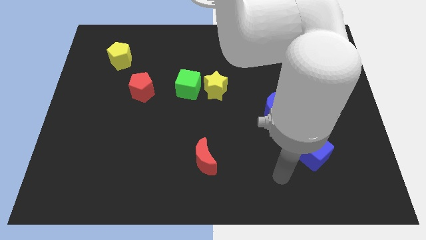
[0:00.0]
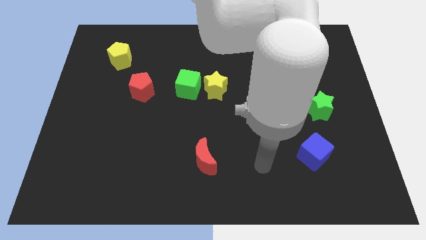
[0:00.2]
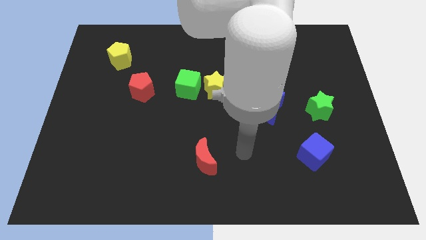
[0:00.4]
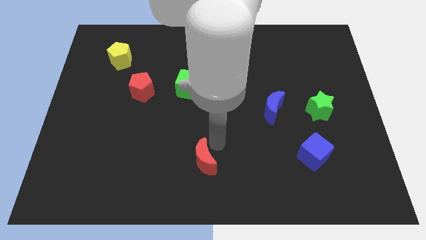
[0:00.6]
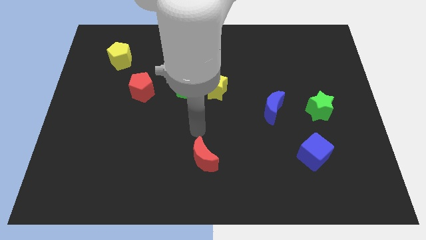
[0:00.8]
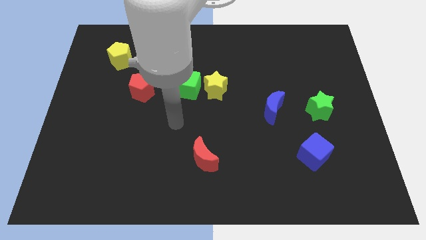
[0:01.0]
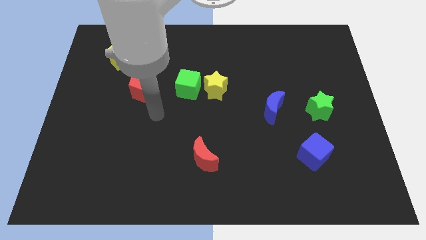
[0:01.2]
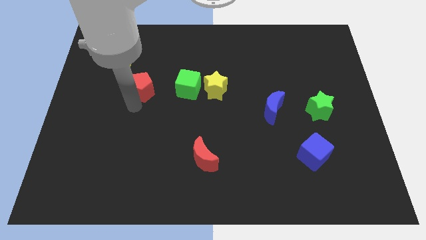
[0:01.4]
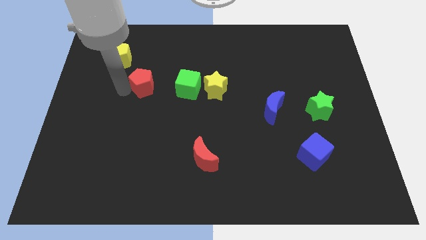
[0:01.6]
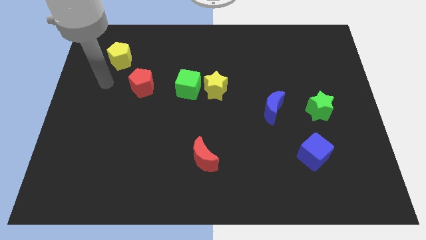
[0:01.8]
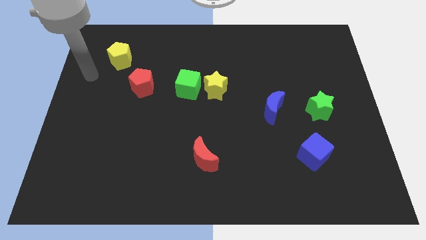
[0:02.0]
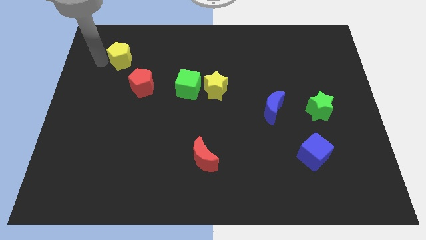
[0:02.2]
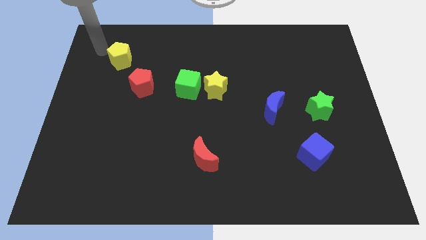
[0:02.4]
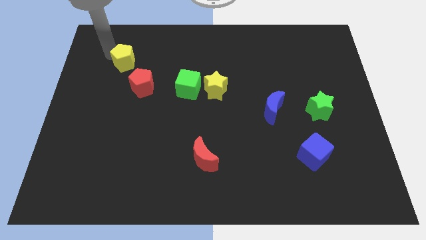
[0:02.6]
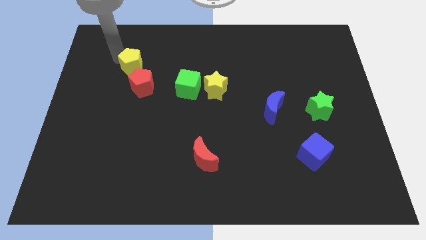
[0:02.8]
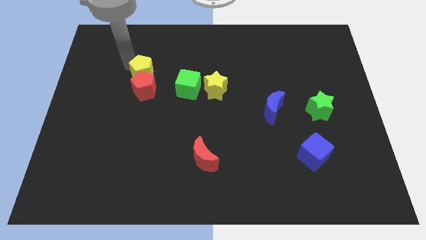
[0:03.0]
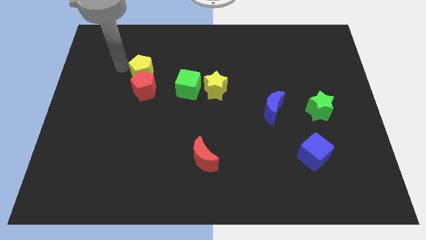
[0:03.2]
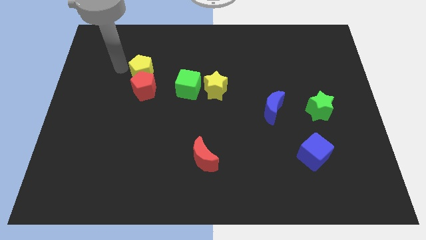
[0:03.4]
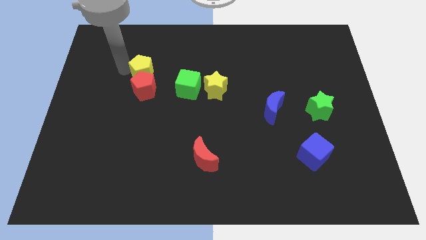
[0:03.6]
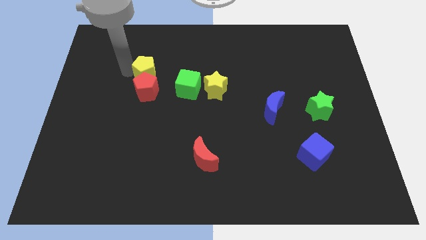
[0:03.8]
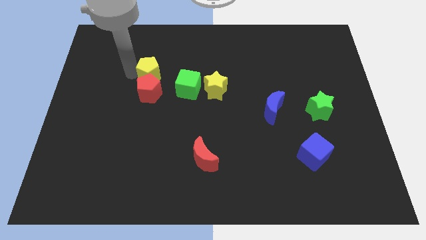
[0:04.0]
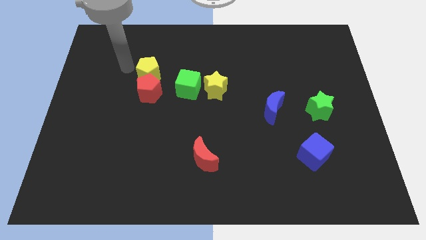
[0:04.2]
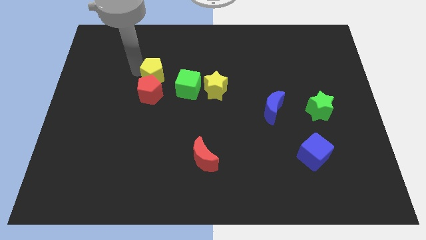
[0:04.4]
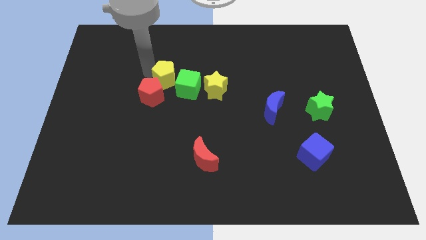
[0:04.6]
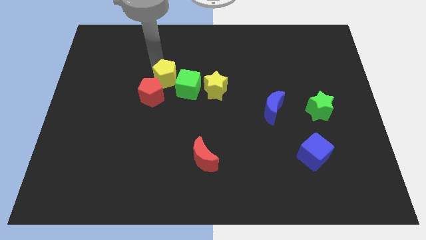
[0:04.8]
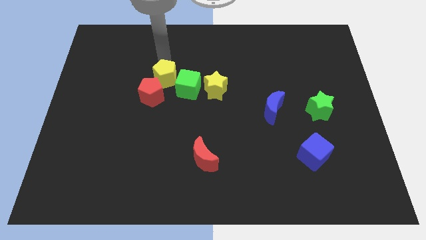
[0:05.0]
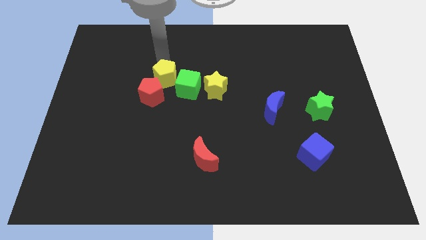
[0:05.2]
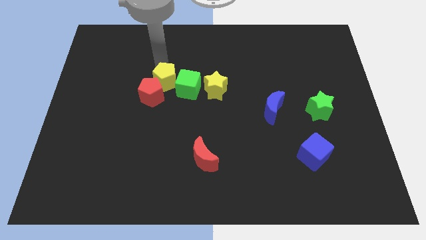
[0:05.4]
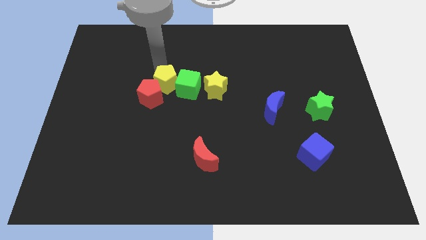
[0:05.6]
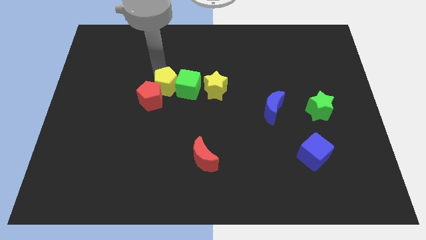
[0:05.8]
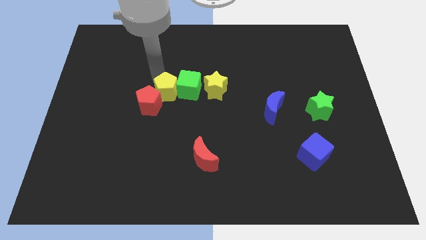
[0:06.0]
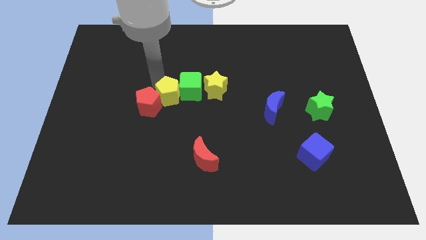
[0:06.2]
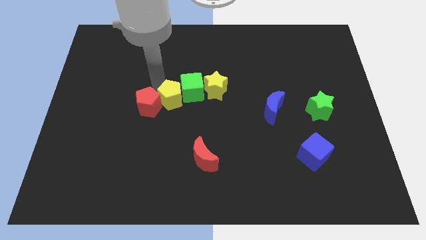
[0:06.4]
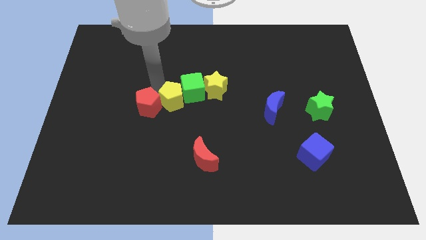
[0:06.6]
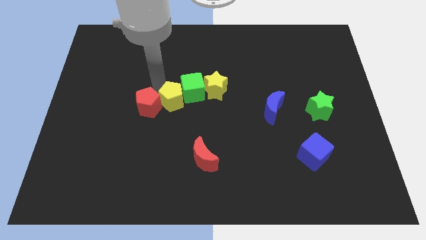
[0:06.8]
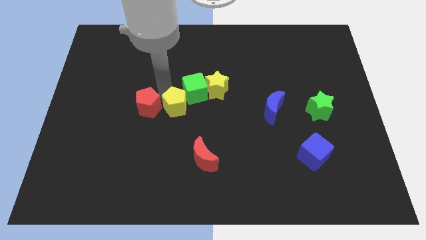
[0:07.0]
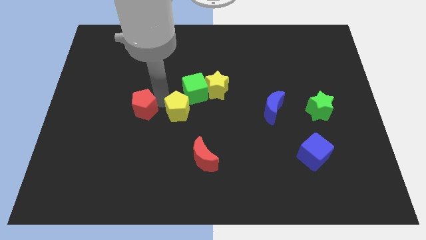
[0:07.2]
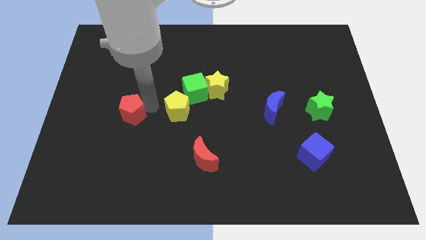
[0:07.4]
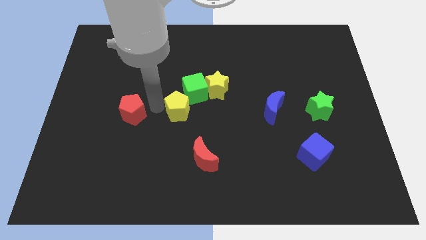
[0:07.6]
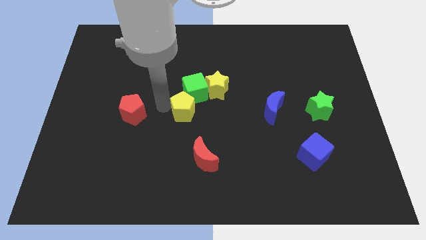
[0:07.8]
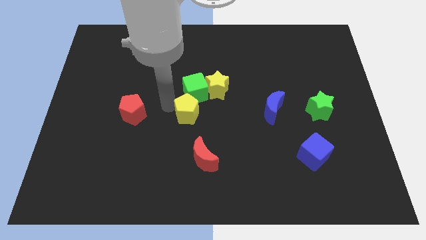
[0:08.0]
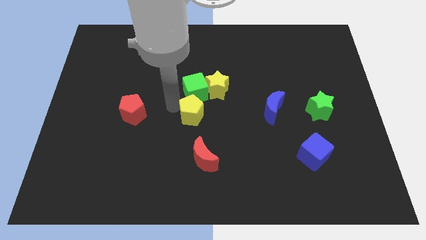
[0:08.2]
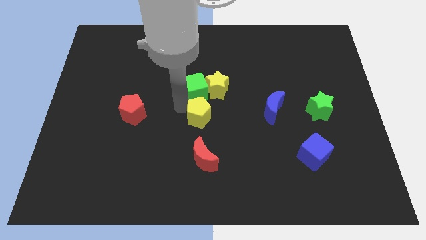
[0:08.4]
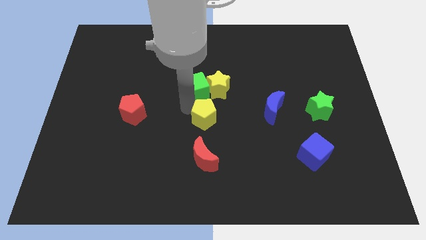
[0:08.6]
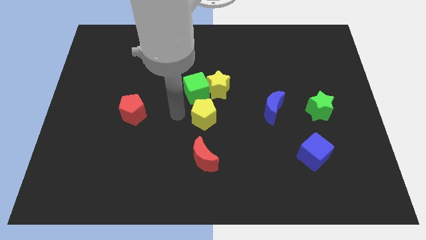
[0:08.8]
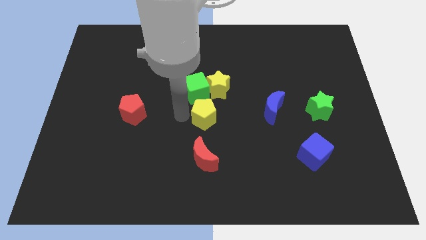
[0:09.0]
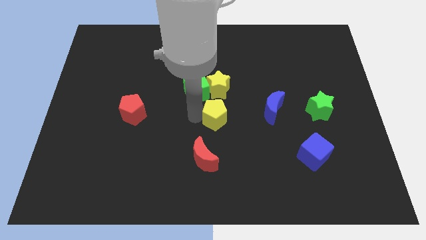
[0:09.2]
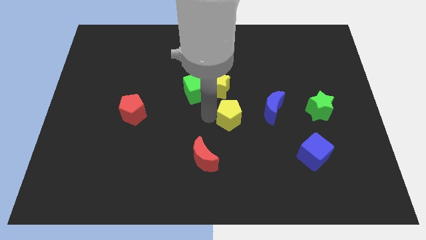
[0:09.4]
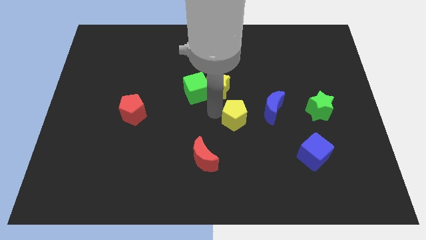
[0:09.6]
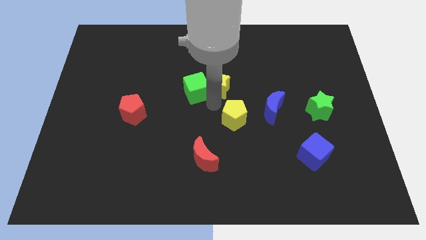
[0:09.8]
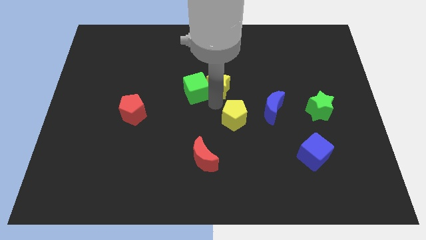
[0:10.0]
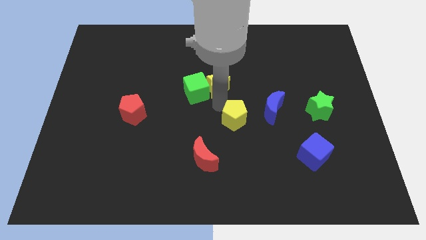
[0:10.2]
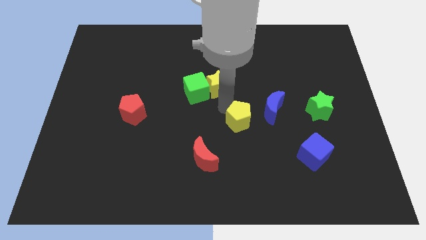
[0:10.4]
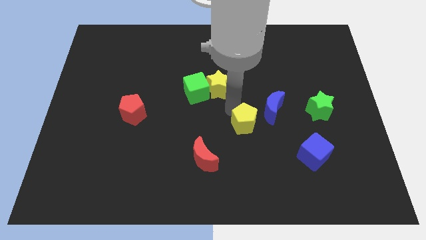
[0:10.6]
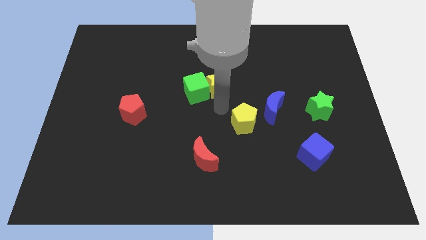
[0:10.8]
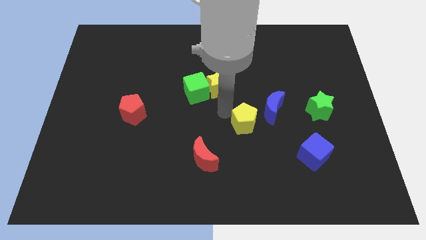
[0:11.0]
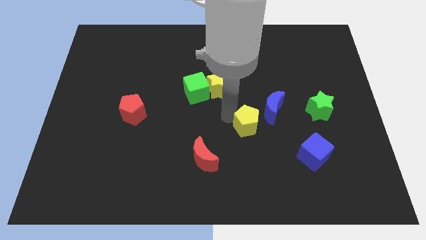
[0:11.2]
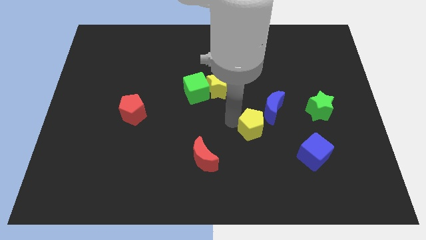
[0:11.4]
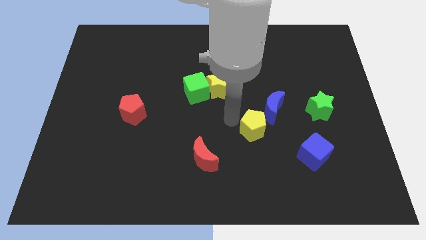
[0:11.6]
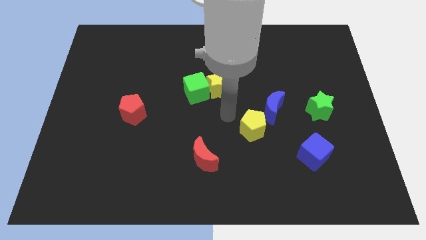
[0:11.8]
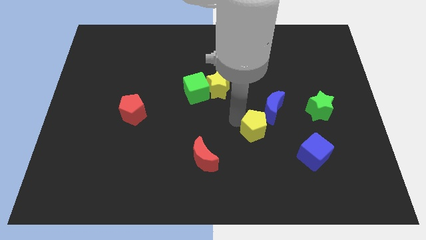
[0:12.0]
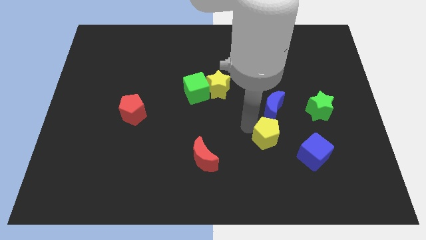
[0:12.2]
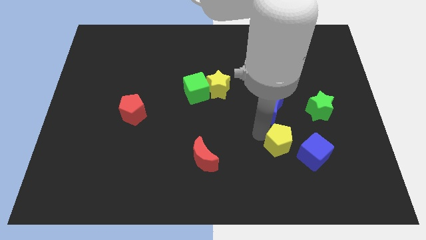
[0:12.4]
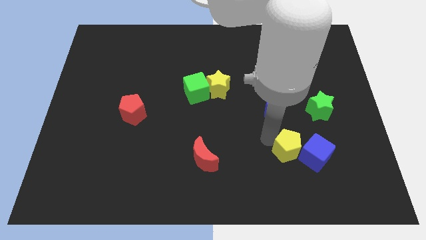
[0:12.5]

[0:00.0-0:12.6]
push the yellow pentagon close to the blue cube

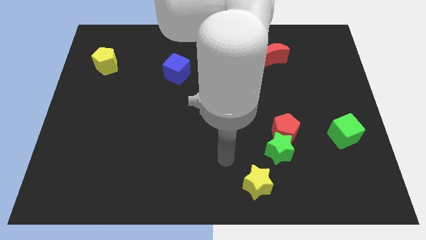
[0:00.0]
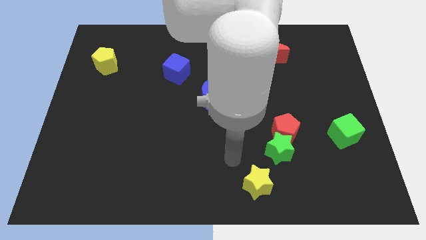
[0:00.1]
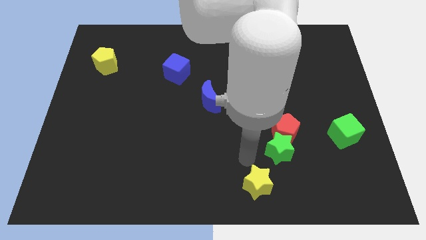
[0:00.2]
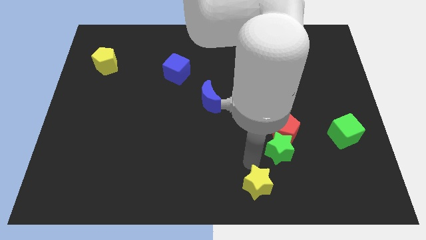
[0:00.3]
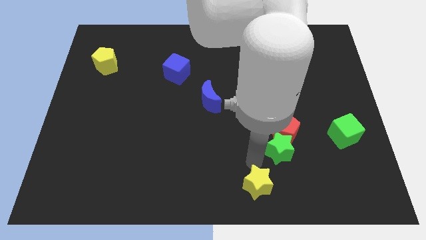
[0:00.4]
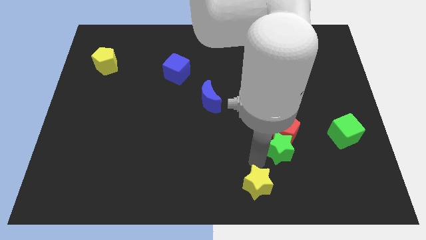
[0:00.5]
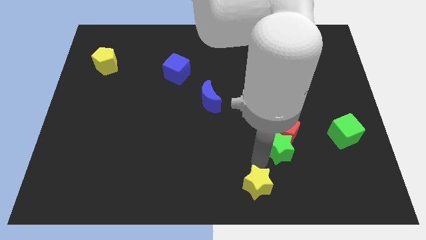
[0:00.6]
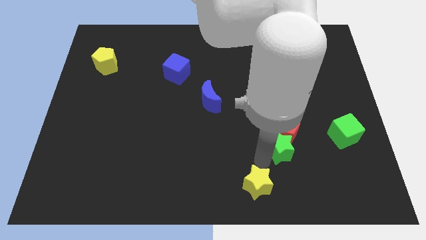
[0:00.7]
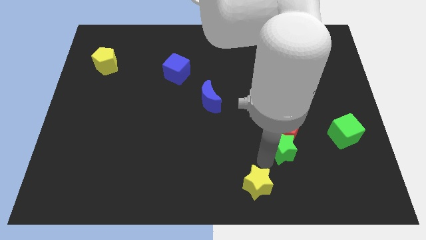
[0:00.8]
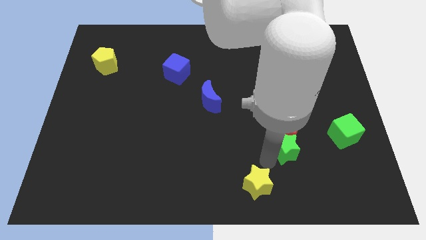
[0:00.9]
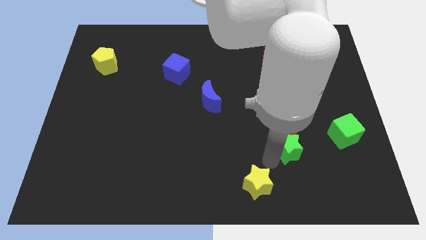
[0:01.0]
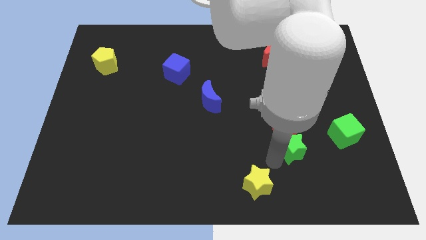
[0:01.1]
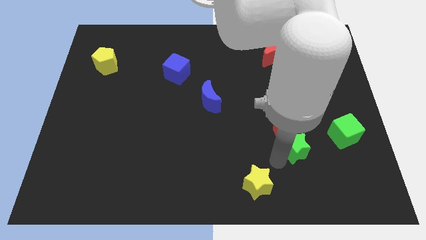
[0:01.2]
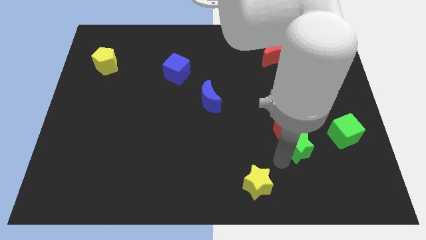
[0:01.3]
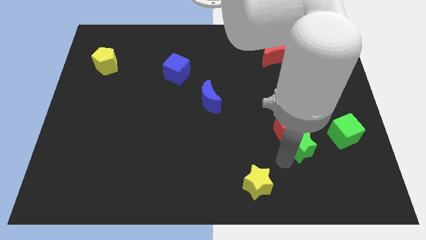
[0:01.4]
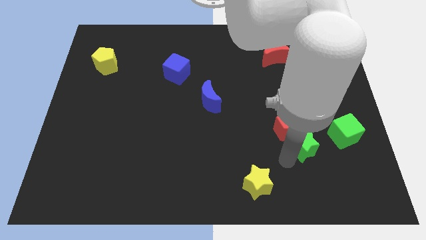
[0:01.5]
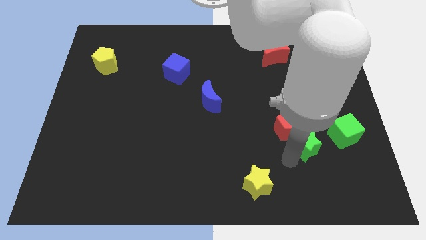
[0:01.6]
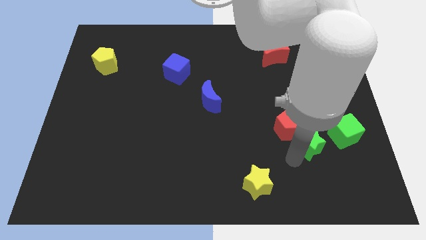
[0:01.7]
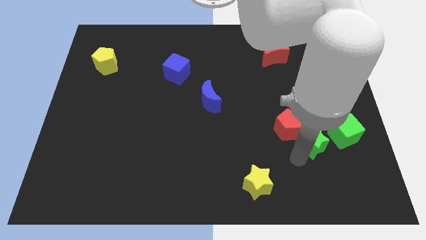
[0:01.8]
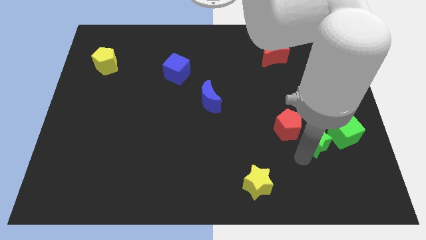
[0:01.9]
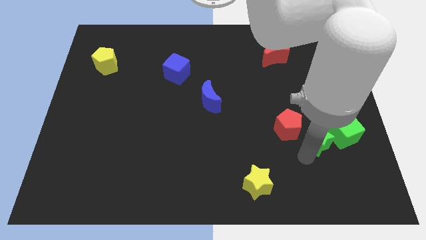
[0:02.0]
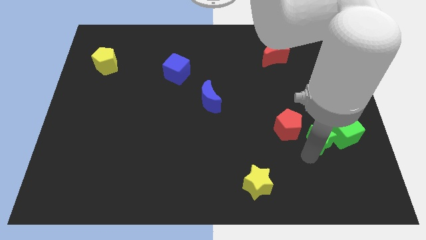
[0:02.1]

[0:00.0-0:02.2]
slide the green star to the green cube
